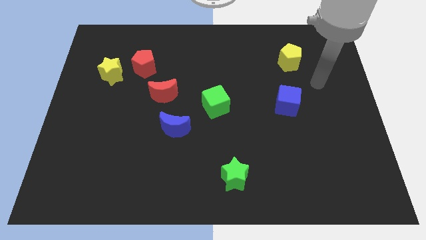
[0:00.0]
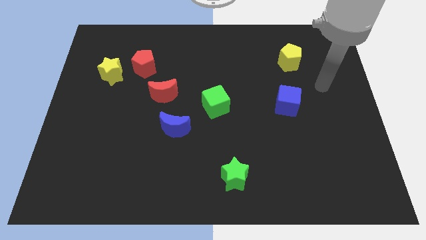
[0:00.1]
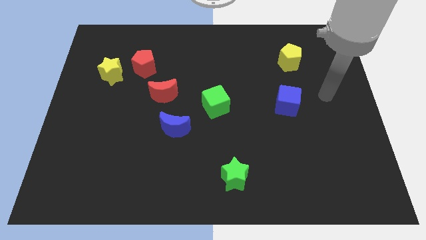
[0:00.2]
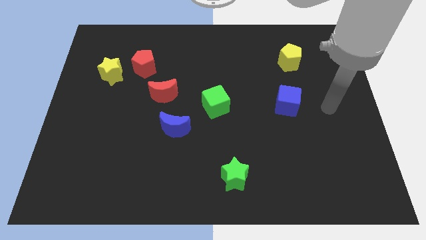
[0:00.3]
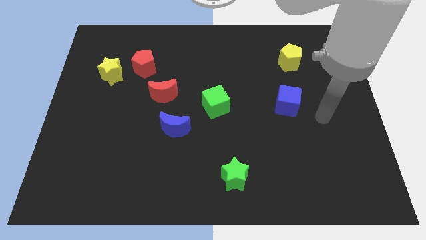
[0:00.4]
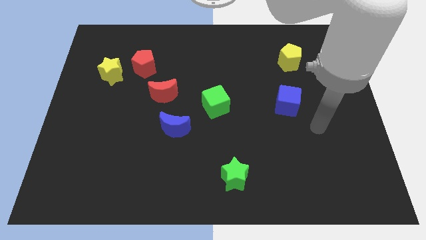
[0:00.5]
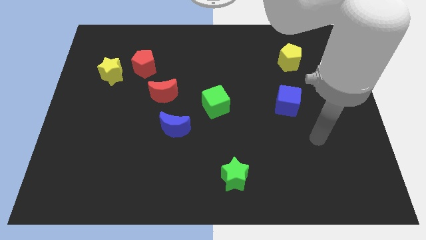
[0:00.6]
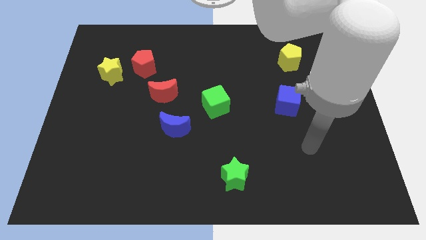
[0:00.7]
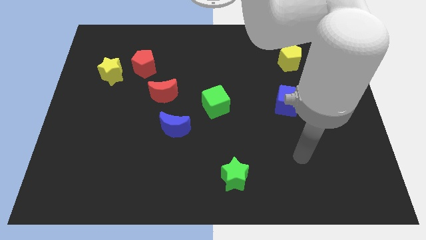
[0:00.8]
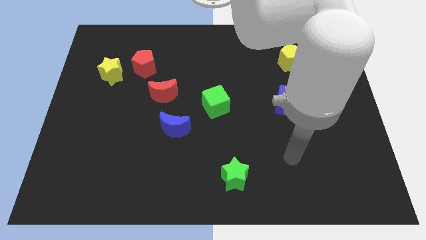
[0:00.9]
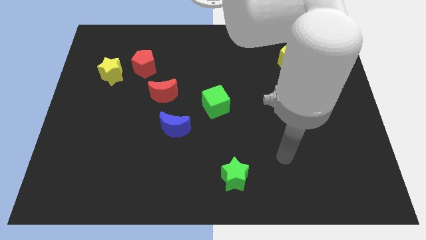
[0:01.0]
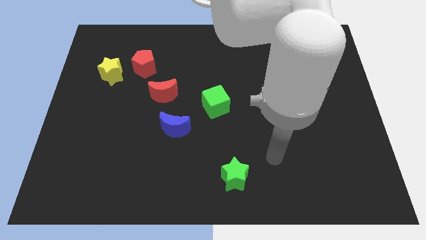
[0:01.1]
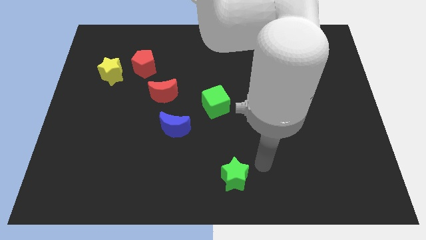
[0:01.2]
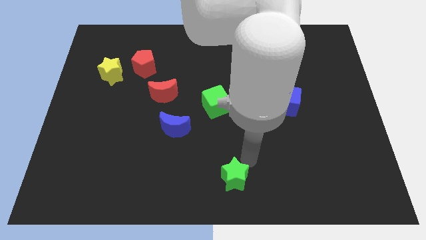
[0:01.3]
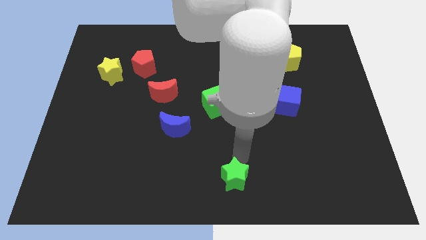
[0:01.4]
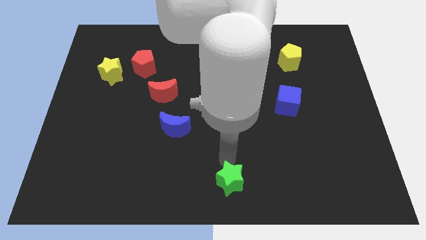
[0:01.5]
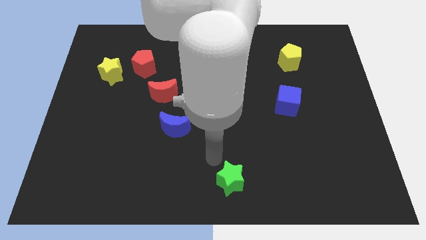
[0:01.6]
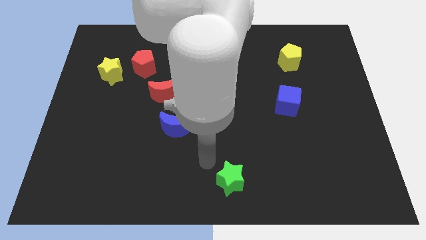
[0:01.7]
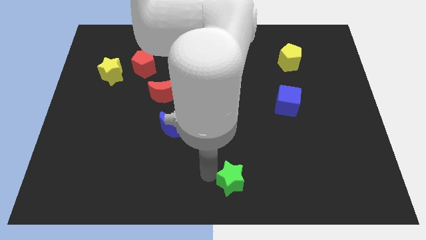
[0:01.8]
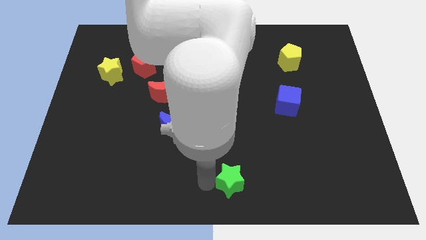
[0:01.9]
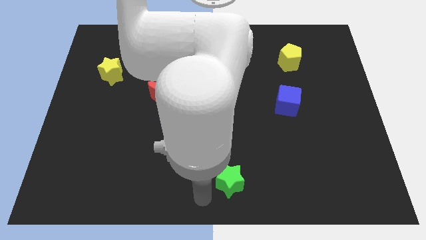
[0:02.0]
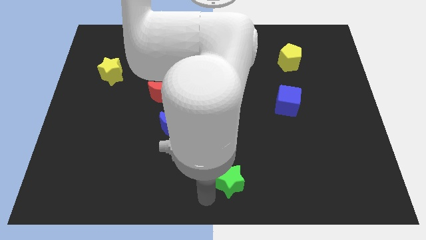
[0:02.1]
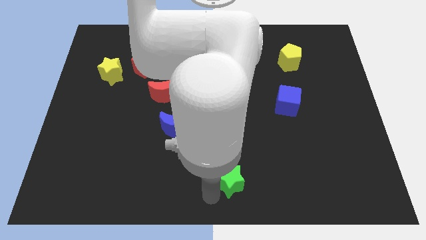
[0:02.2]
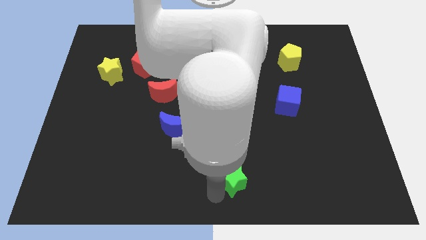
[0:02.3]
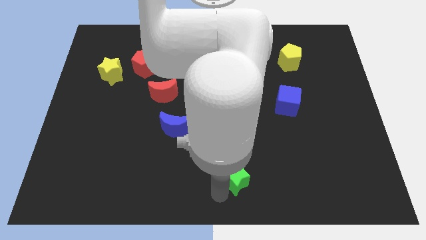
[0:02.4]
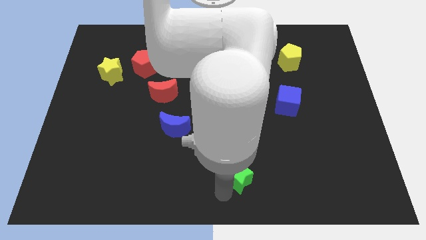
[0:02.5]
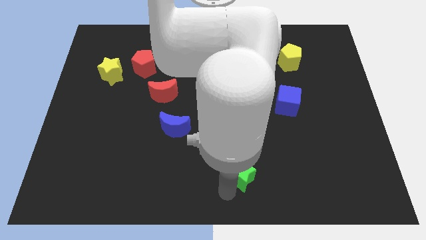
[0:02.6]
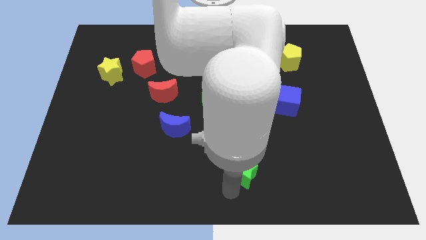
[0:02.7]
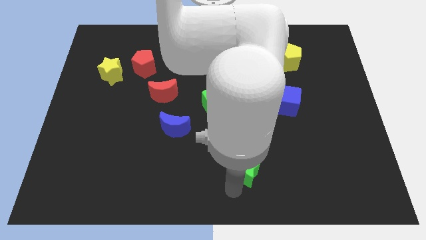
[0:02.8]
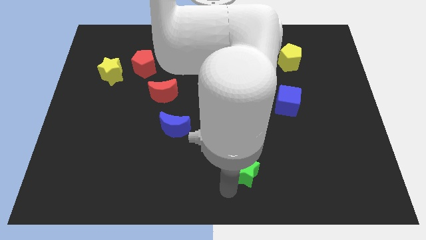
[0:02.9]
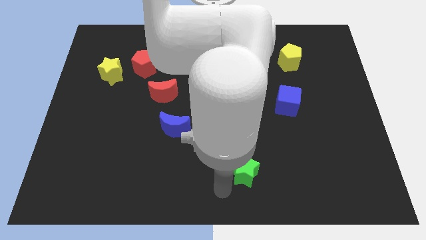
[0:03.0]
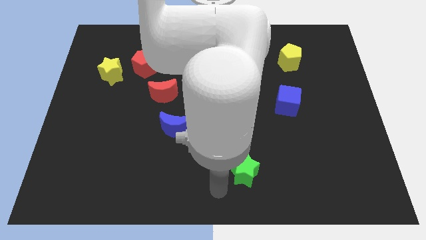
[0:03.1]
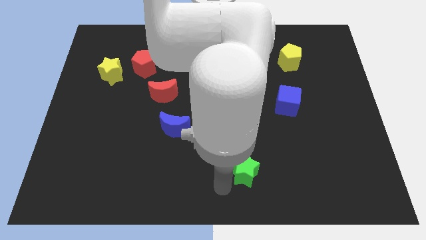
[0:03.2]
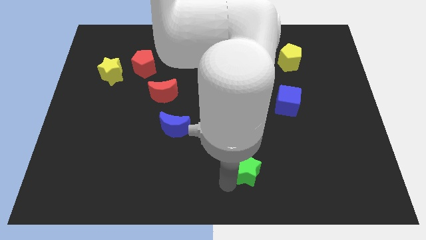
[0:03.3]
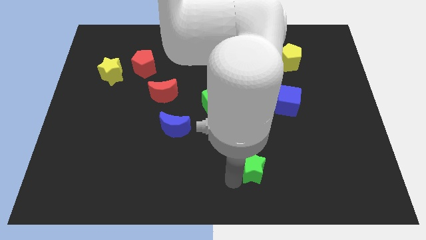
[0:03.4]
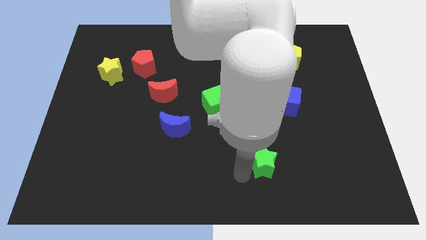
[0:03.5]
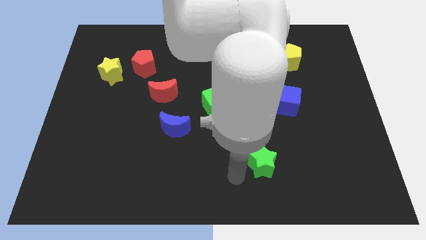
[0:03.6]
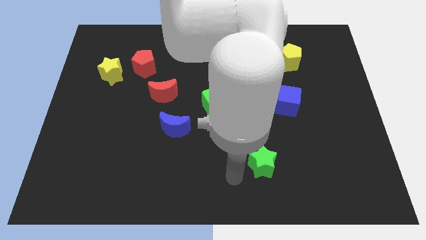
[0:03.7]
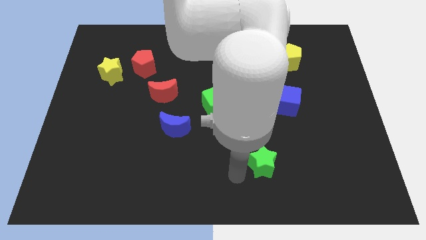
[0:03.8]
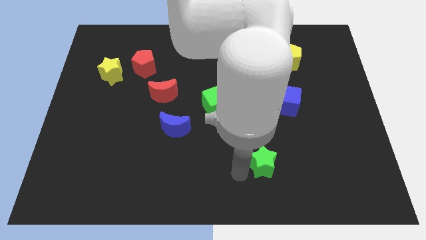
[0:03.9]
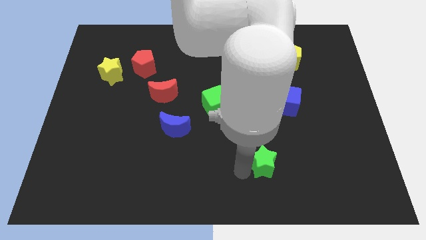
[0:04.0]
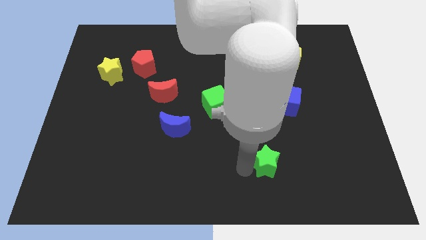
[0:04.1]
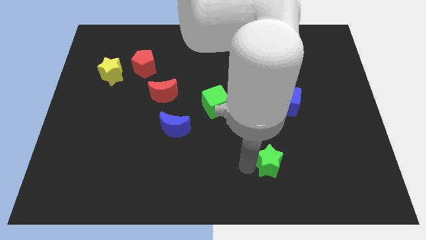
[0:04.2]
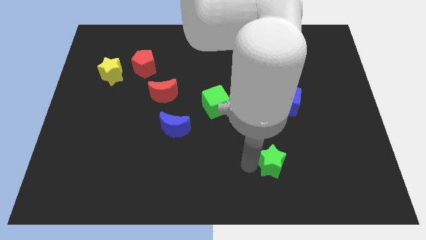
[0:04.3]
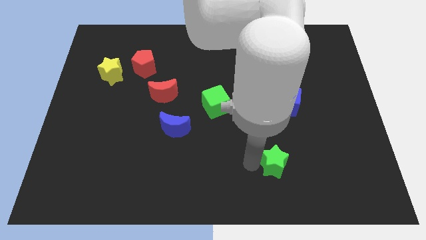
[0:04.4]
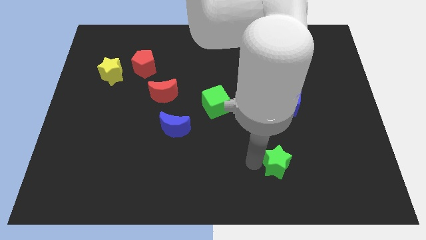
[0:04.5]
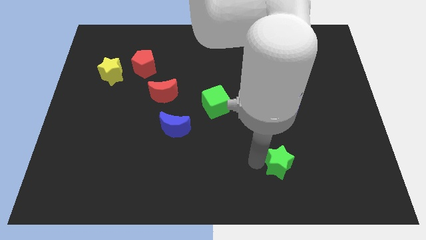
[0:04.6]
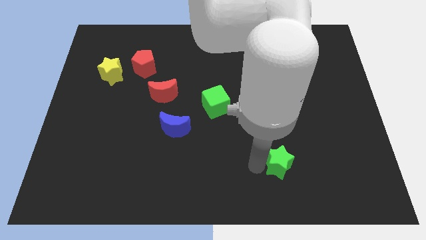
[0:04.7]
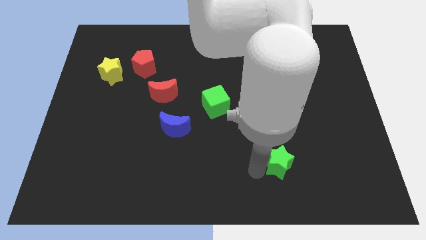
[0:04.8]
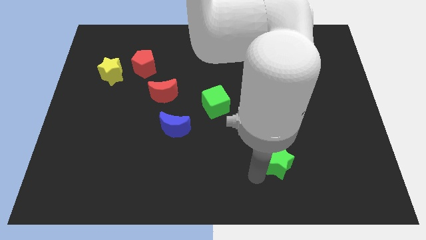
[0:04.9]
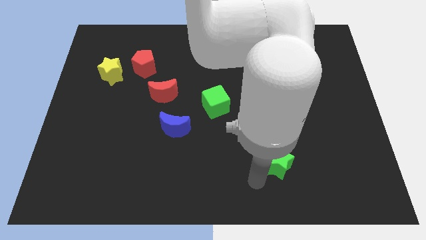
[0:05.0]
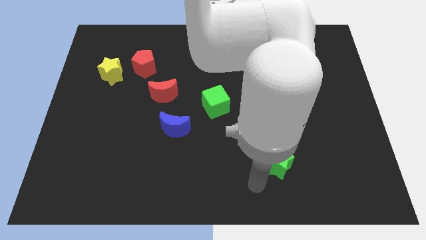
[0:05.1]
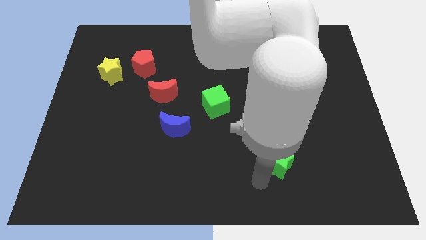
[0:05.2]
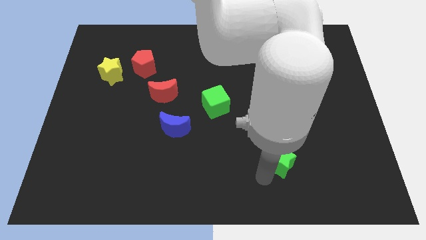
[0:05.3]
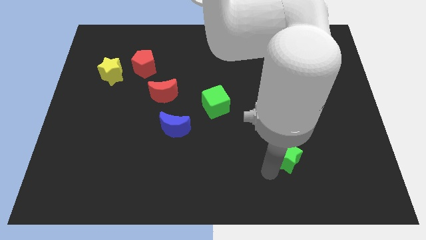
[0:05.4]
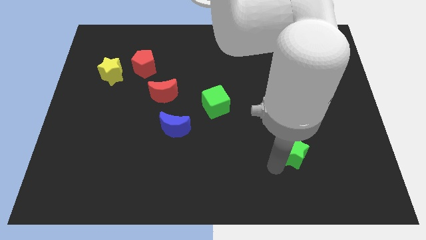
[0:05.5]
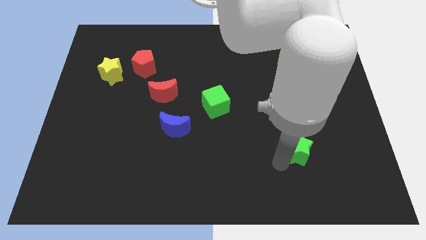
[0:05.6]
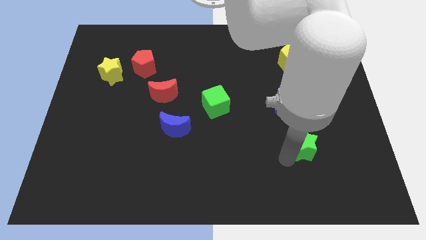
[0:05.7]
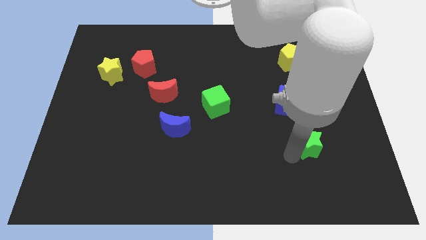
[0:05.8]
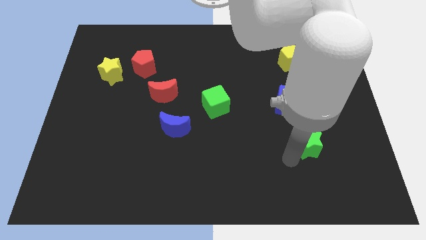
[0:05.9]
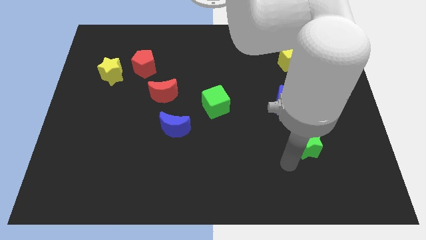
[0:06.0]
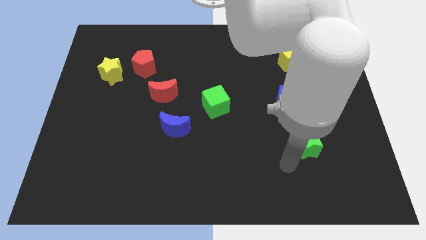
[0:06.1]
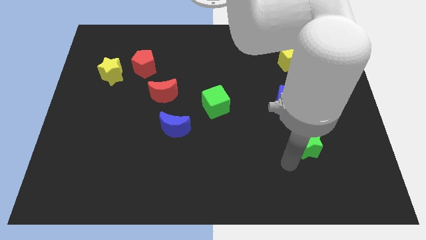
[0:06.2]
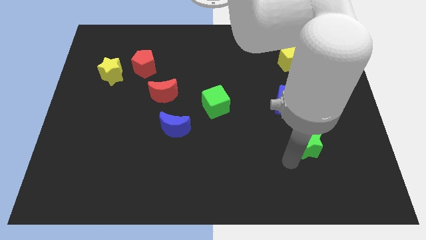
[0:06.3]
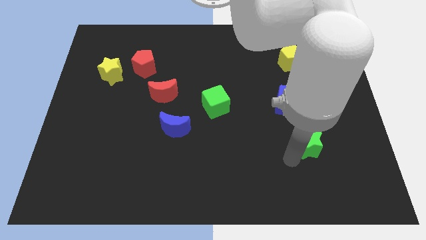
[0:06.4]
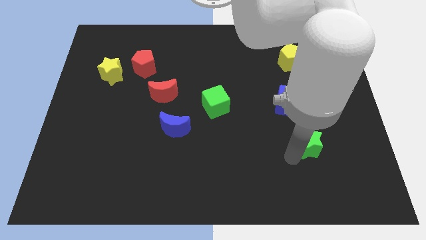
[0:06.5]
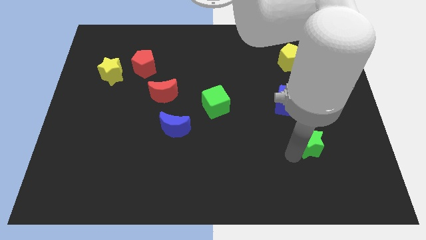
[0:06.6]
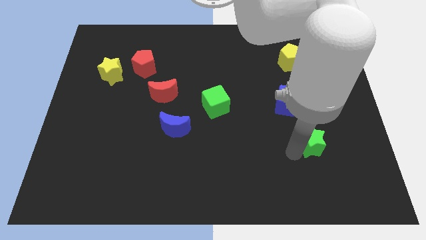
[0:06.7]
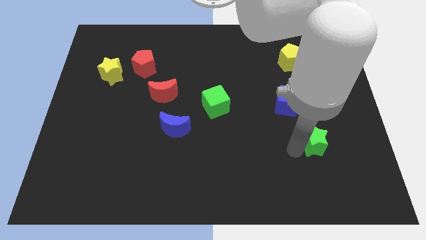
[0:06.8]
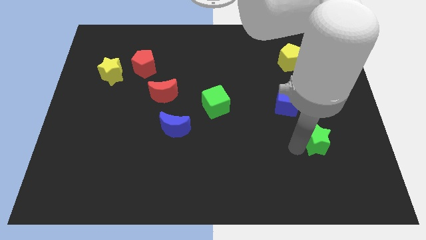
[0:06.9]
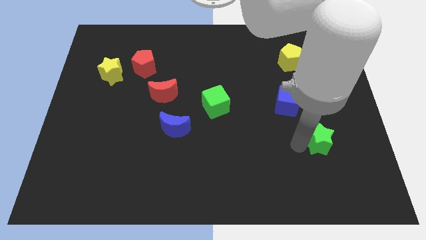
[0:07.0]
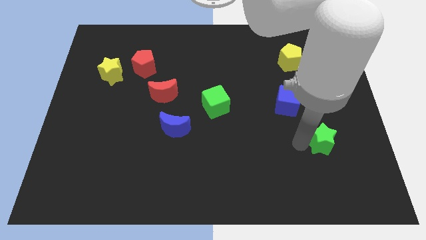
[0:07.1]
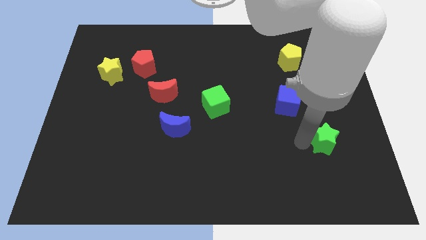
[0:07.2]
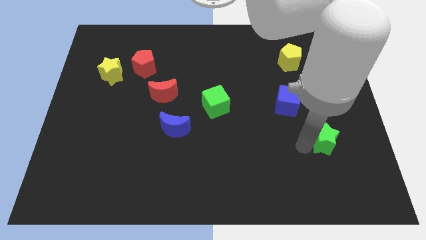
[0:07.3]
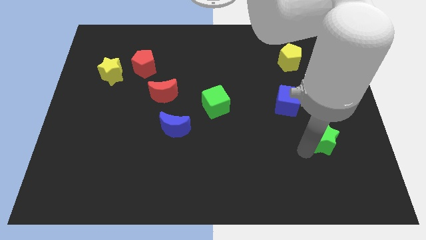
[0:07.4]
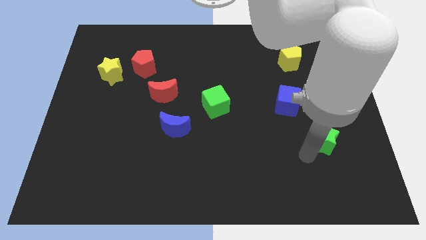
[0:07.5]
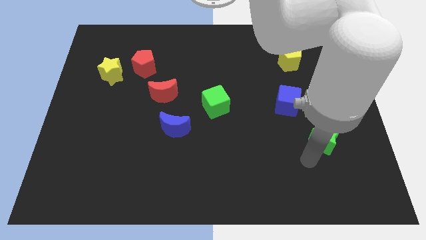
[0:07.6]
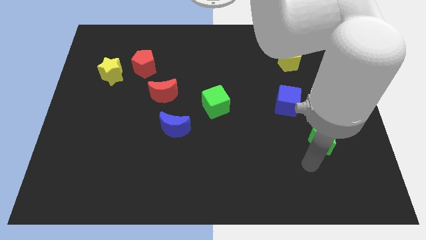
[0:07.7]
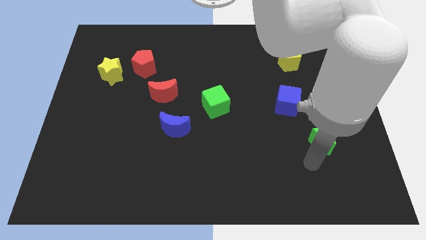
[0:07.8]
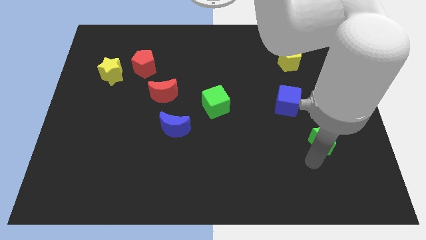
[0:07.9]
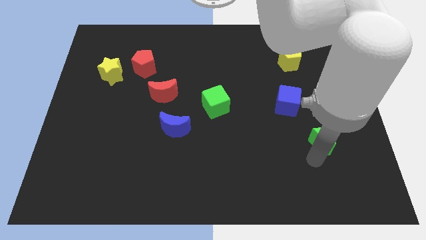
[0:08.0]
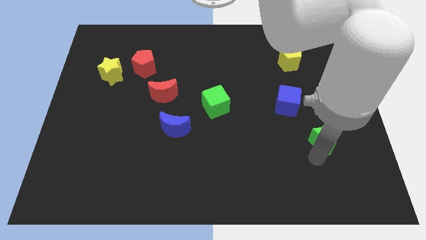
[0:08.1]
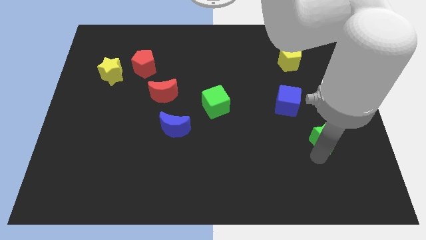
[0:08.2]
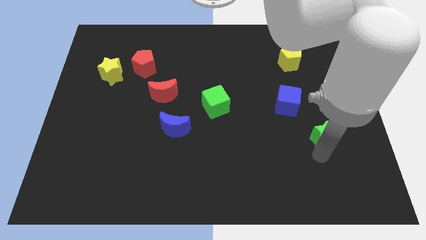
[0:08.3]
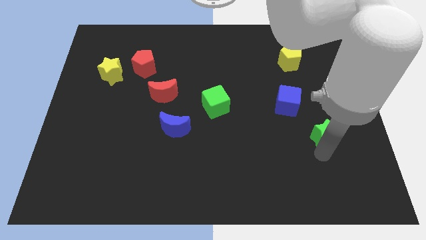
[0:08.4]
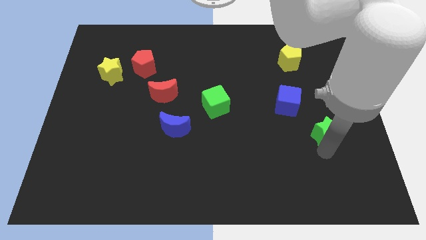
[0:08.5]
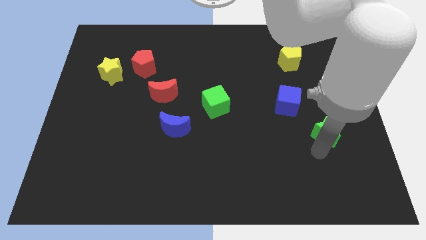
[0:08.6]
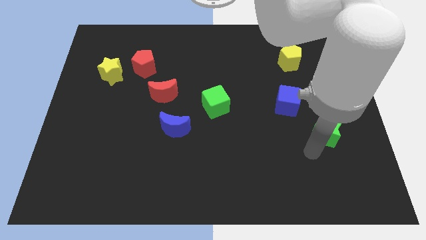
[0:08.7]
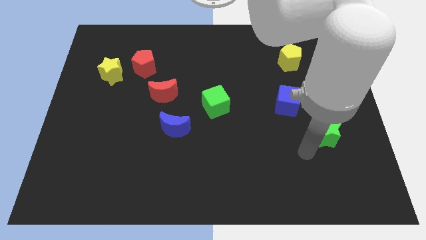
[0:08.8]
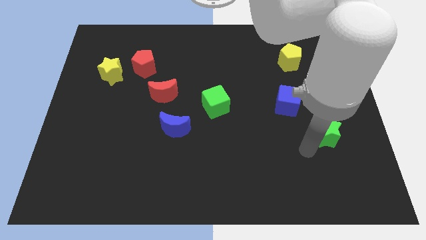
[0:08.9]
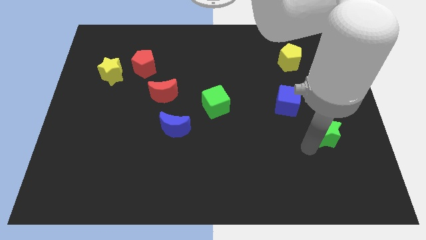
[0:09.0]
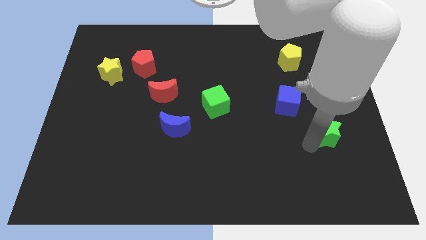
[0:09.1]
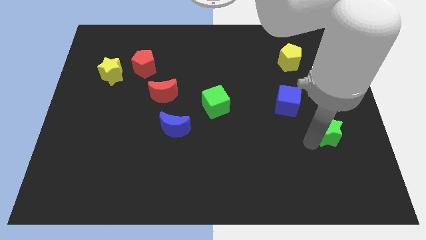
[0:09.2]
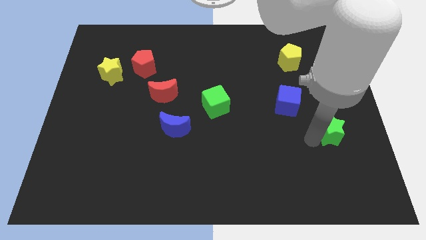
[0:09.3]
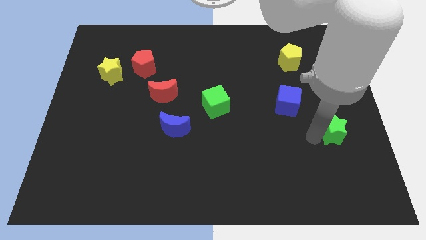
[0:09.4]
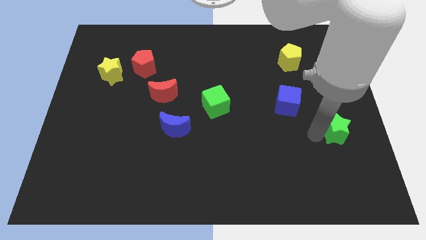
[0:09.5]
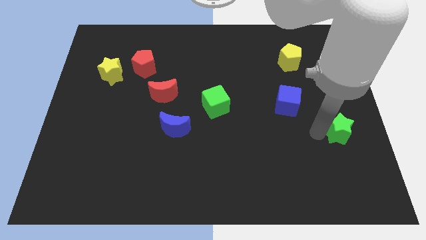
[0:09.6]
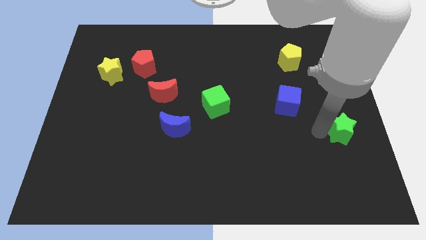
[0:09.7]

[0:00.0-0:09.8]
move the green star to the right side of the board
